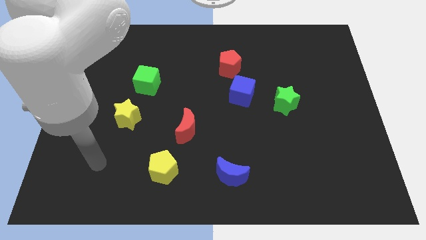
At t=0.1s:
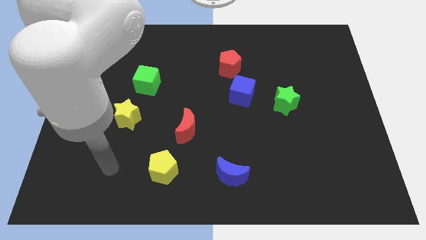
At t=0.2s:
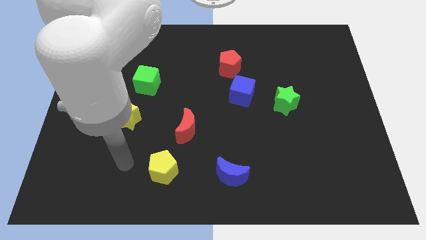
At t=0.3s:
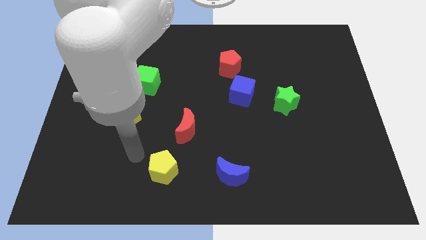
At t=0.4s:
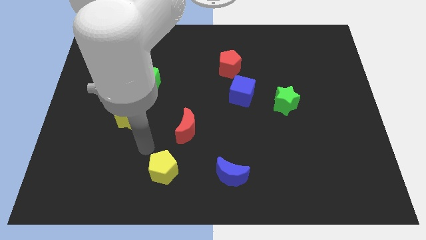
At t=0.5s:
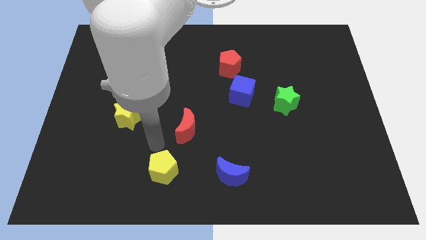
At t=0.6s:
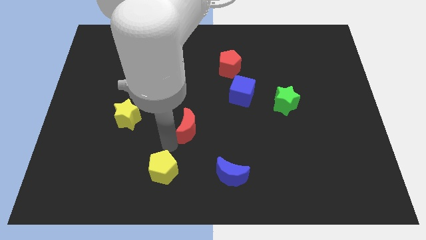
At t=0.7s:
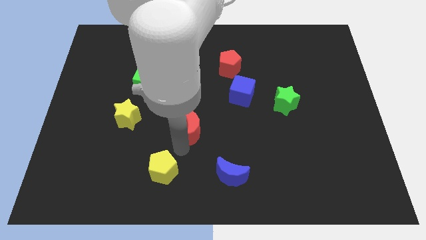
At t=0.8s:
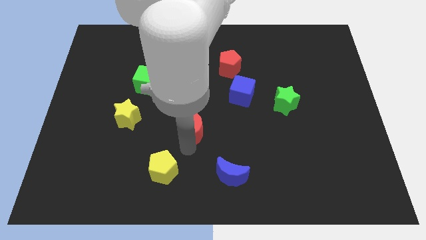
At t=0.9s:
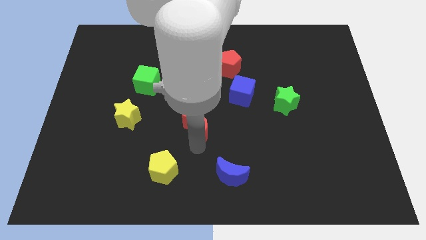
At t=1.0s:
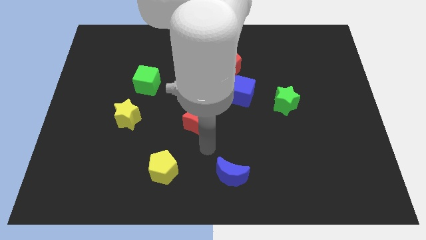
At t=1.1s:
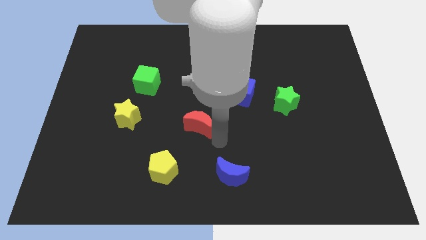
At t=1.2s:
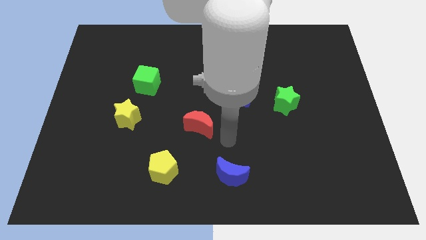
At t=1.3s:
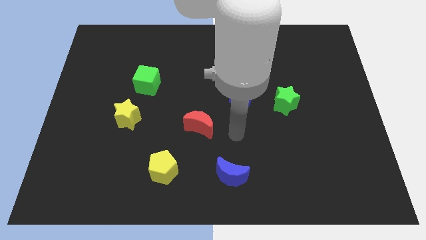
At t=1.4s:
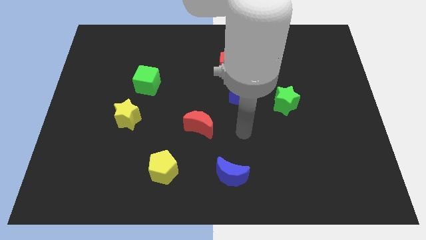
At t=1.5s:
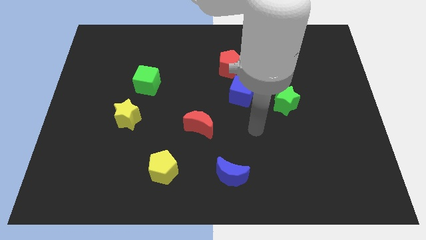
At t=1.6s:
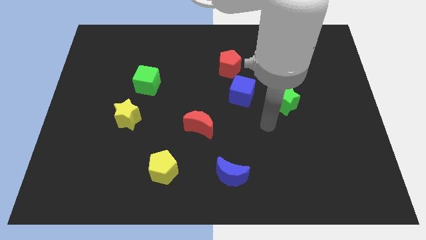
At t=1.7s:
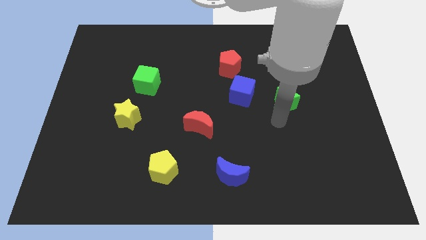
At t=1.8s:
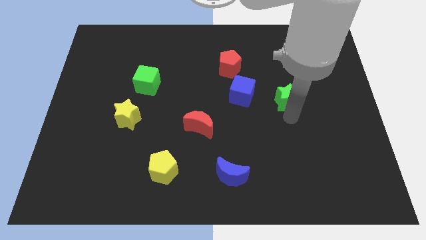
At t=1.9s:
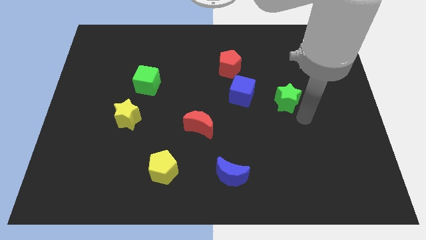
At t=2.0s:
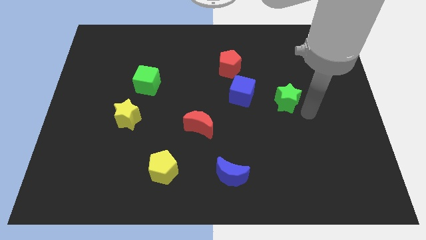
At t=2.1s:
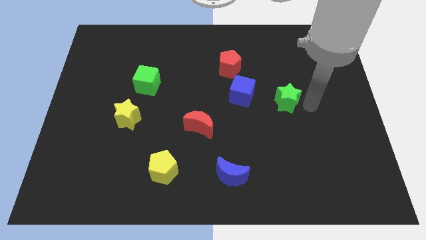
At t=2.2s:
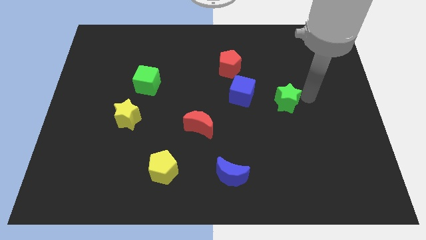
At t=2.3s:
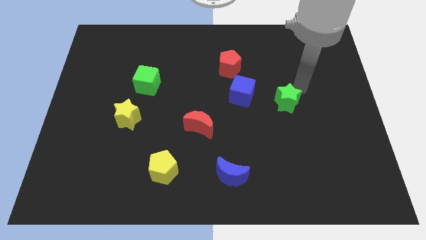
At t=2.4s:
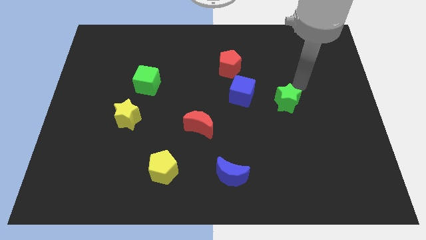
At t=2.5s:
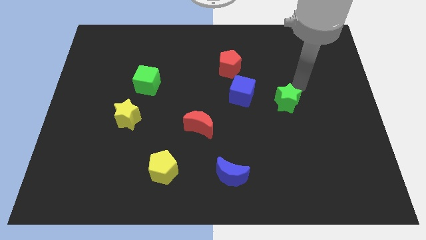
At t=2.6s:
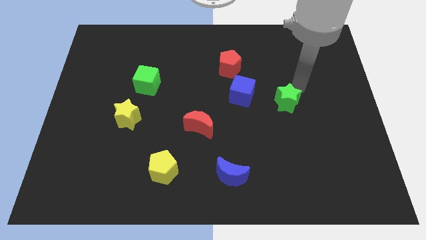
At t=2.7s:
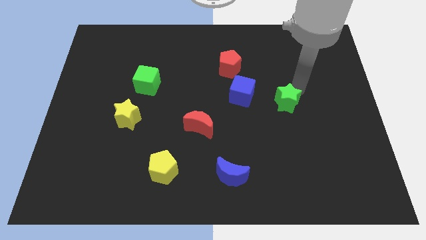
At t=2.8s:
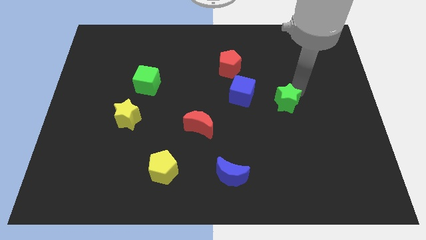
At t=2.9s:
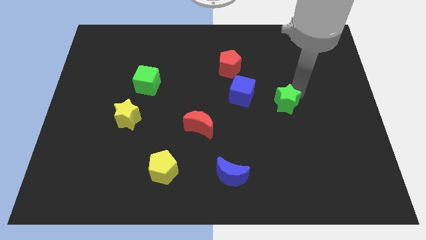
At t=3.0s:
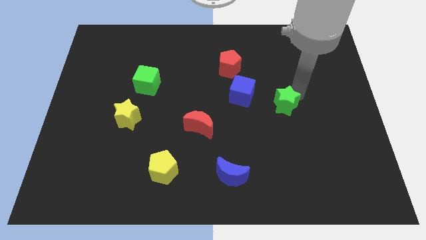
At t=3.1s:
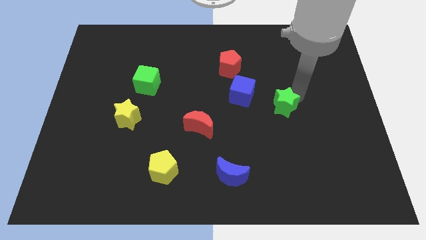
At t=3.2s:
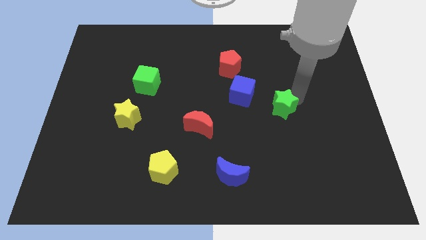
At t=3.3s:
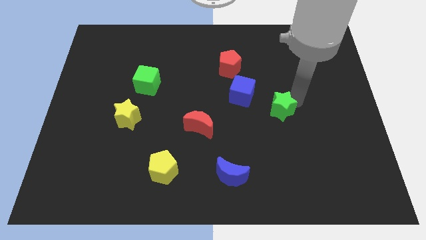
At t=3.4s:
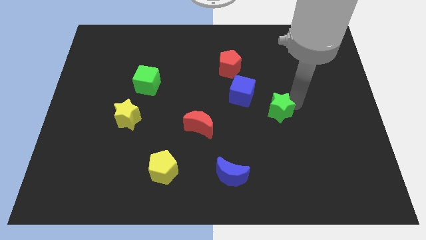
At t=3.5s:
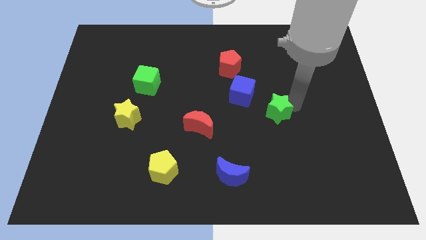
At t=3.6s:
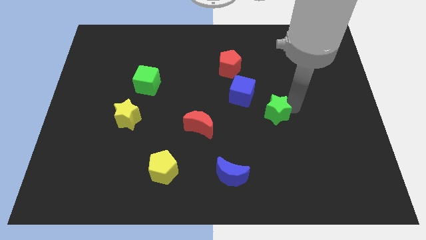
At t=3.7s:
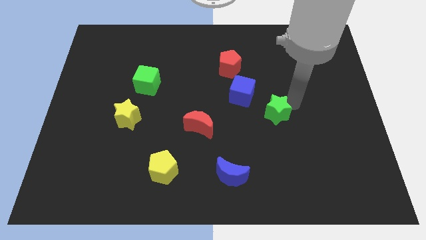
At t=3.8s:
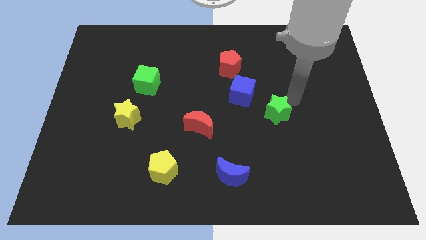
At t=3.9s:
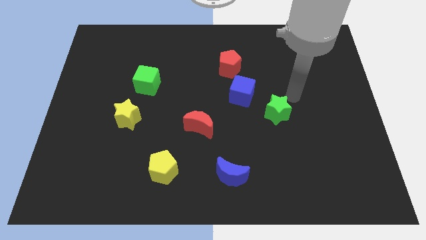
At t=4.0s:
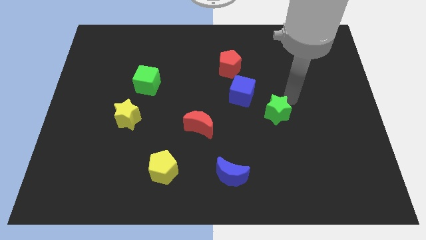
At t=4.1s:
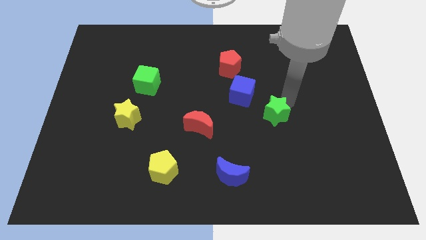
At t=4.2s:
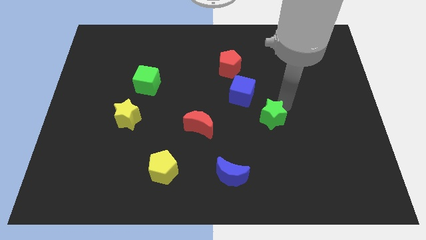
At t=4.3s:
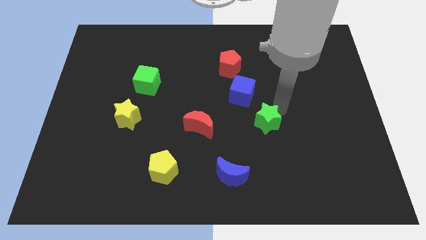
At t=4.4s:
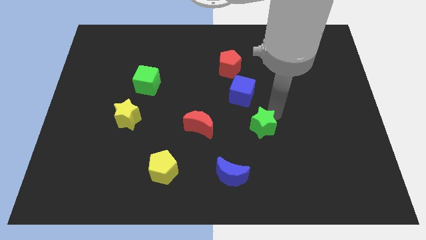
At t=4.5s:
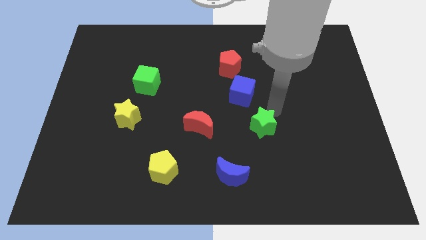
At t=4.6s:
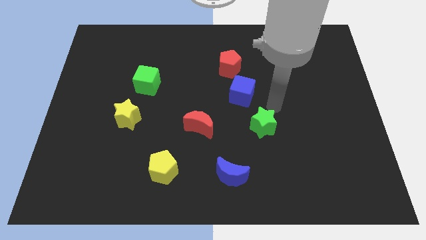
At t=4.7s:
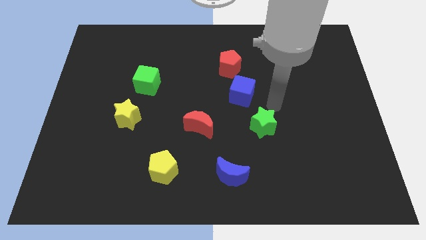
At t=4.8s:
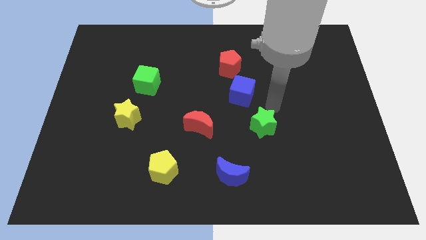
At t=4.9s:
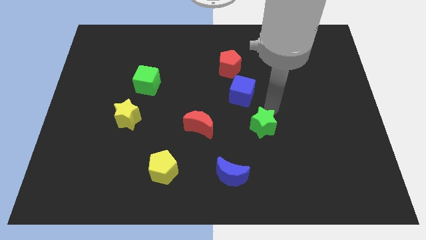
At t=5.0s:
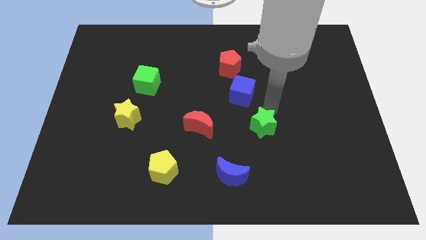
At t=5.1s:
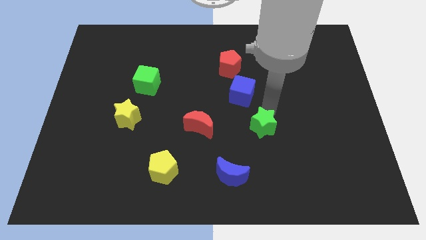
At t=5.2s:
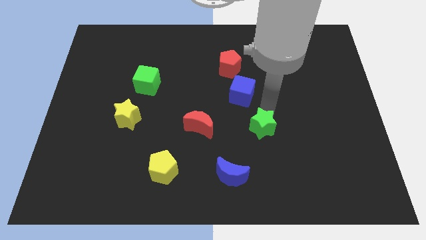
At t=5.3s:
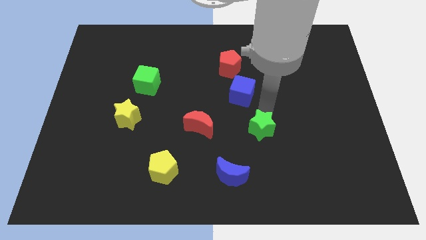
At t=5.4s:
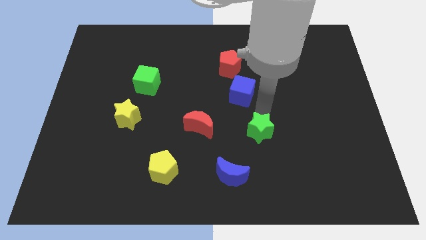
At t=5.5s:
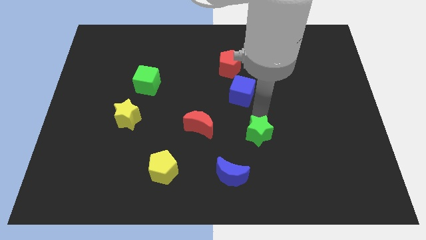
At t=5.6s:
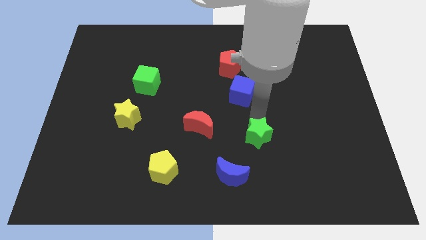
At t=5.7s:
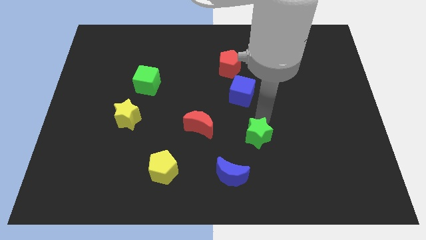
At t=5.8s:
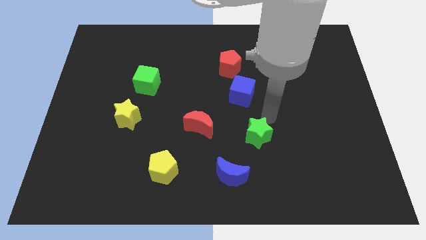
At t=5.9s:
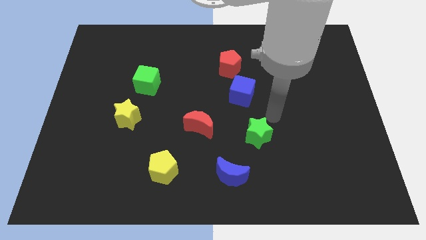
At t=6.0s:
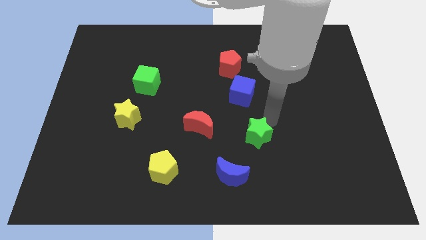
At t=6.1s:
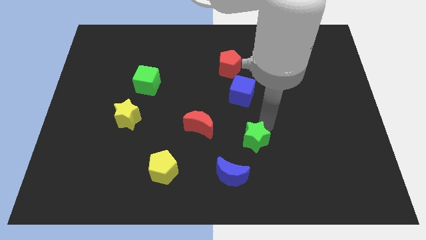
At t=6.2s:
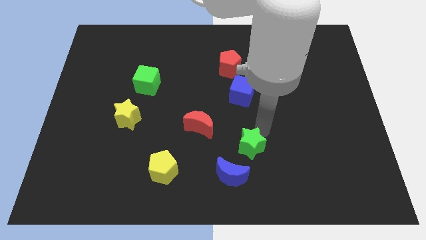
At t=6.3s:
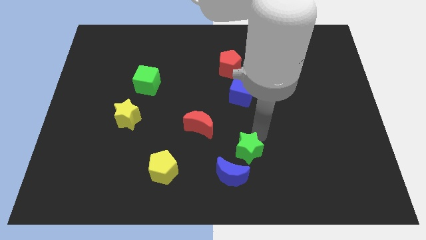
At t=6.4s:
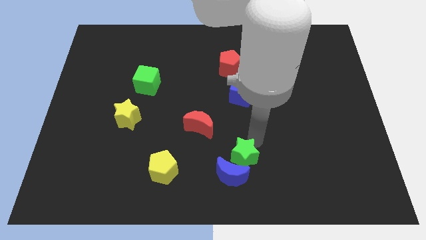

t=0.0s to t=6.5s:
put the green star towards the blue moon

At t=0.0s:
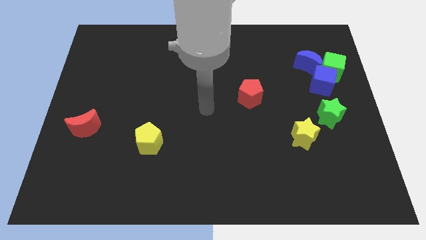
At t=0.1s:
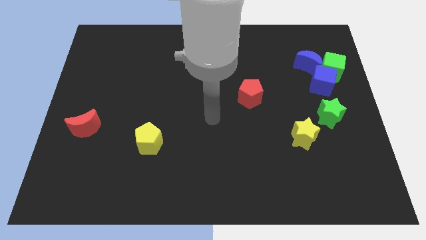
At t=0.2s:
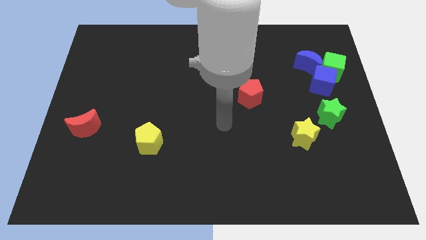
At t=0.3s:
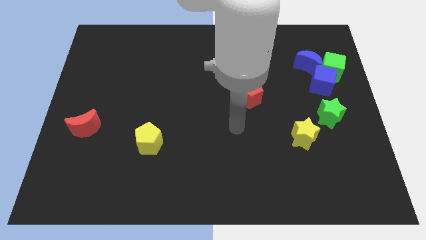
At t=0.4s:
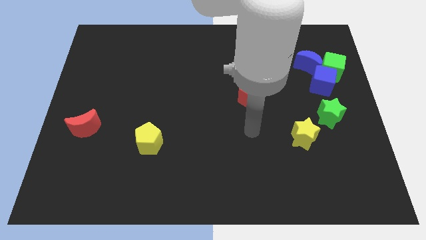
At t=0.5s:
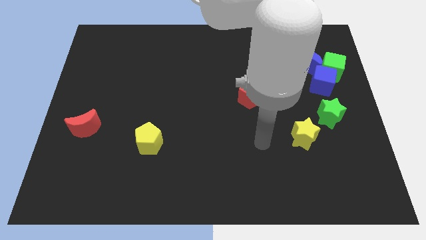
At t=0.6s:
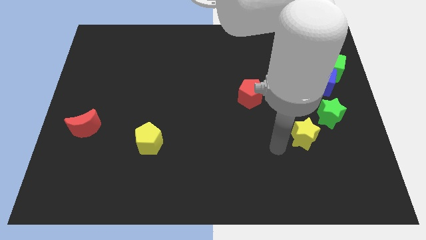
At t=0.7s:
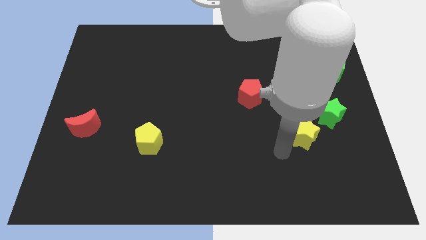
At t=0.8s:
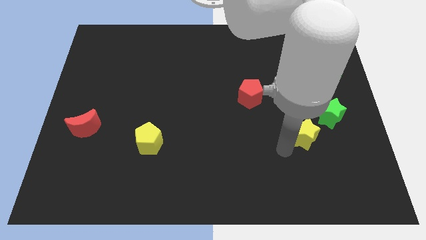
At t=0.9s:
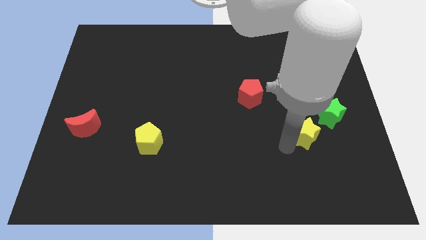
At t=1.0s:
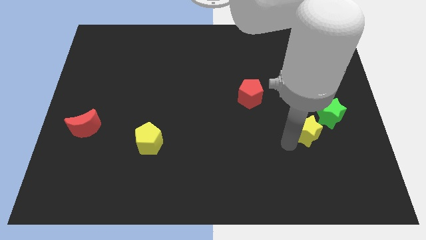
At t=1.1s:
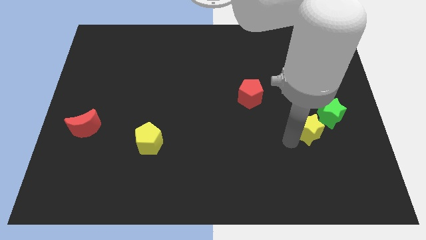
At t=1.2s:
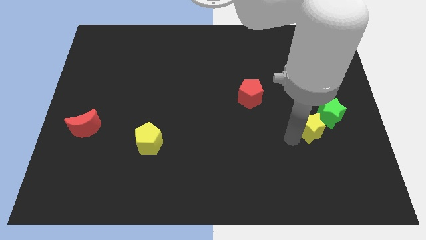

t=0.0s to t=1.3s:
slide the yellow star to the green star
